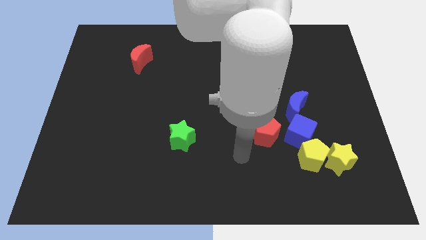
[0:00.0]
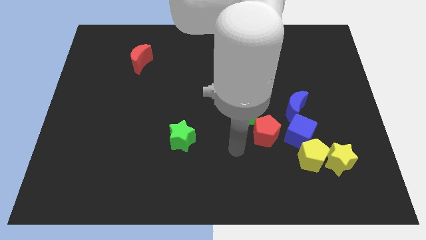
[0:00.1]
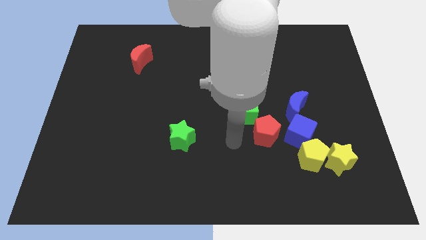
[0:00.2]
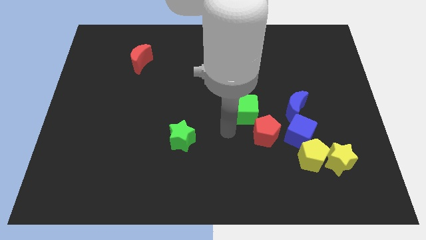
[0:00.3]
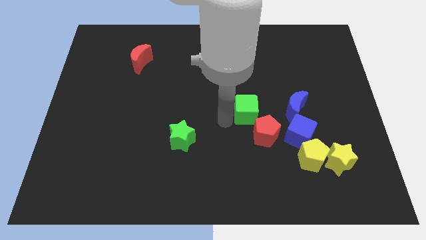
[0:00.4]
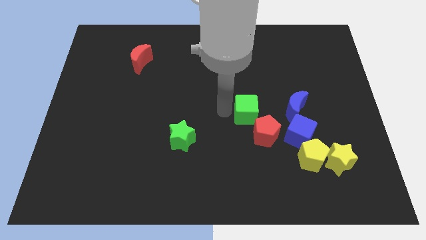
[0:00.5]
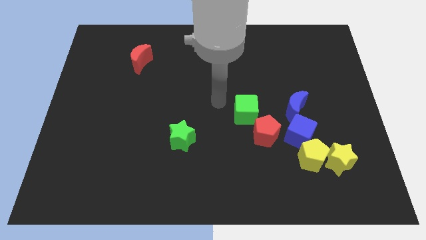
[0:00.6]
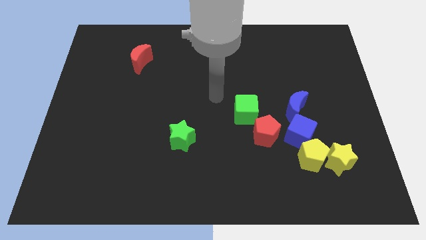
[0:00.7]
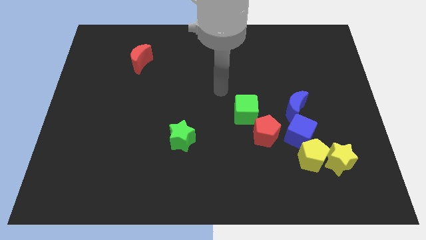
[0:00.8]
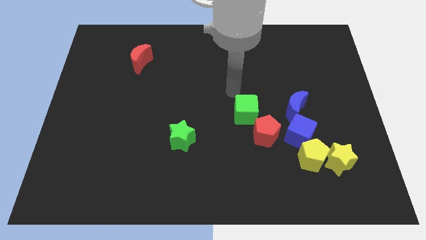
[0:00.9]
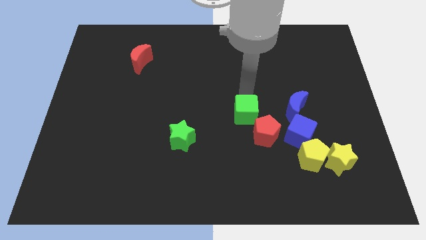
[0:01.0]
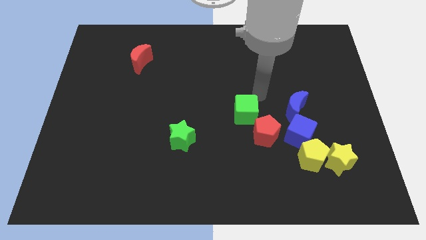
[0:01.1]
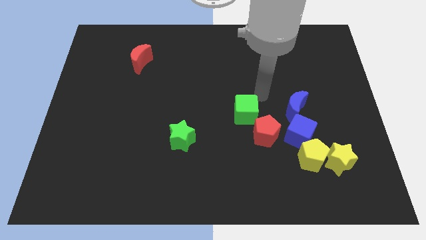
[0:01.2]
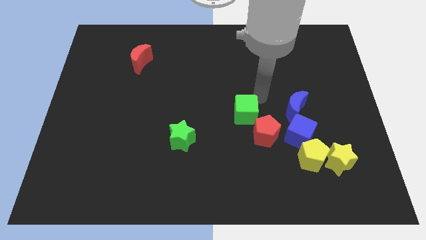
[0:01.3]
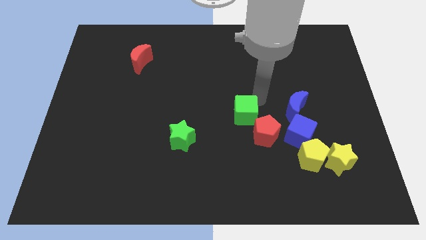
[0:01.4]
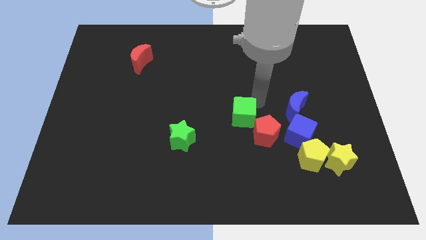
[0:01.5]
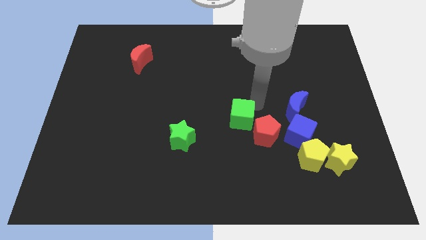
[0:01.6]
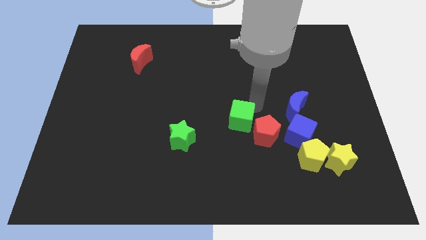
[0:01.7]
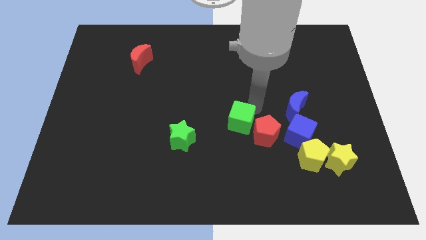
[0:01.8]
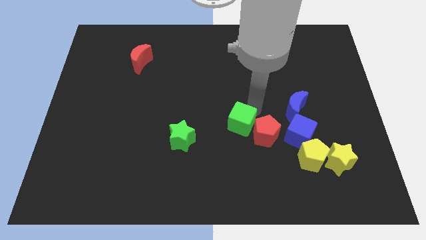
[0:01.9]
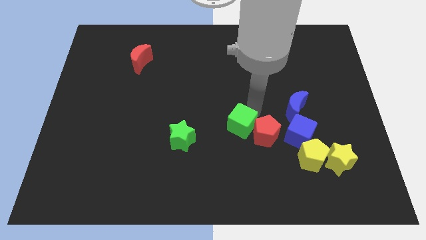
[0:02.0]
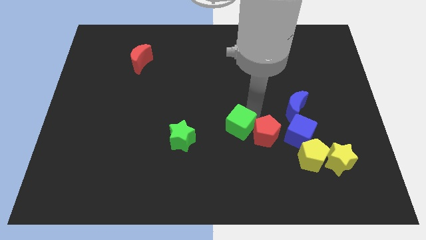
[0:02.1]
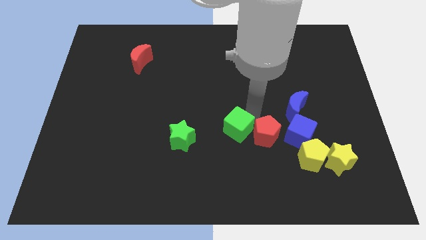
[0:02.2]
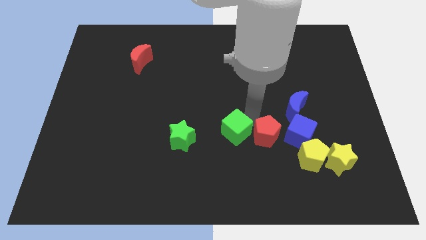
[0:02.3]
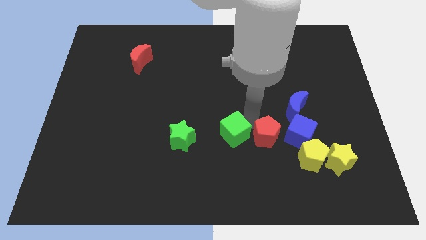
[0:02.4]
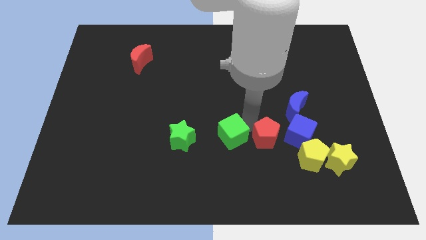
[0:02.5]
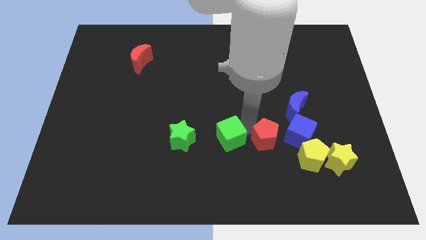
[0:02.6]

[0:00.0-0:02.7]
push the green cube slightly down and then to the left

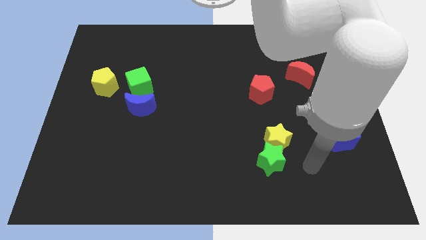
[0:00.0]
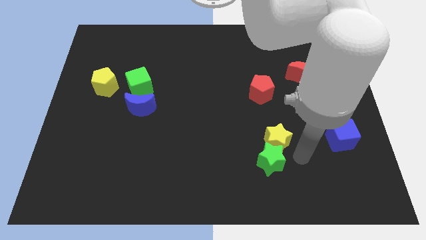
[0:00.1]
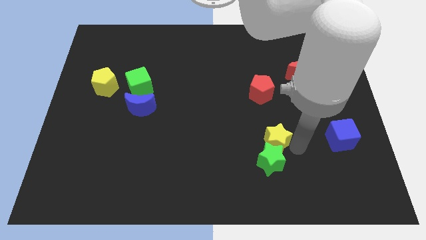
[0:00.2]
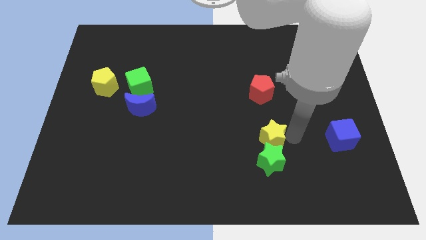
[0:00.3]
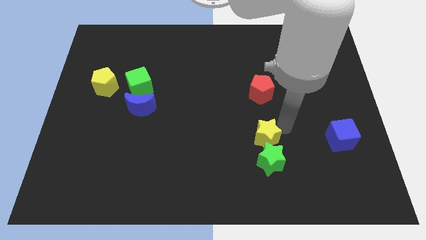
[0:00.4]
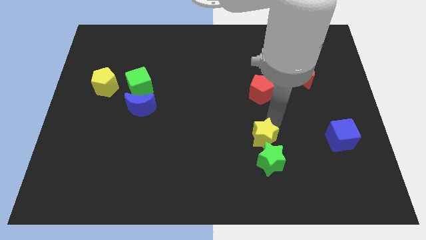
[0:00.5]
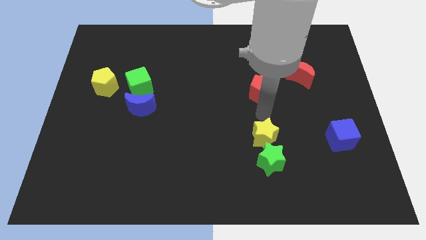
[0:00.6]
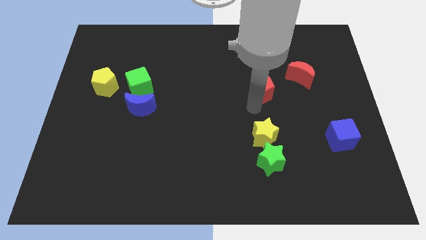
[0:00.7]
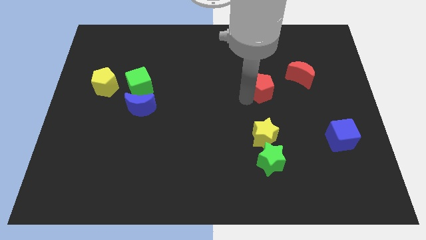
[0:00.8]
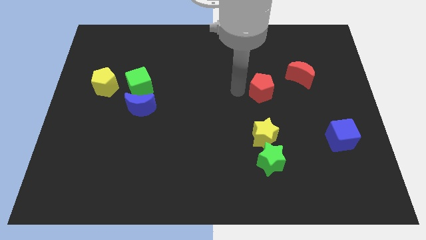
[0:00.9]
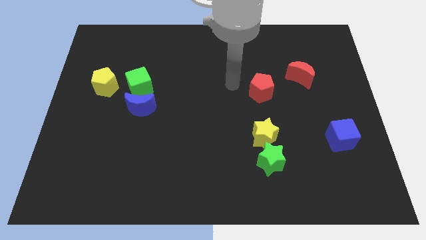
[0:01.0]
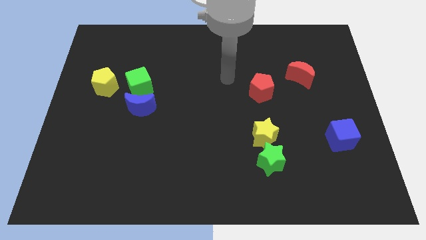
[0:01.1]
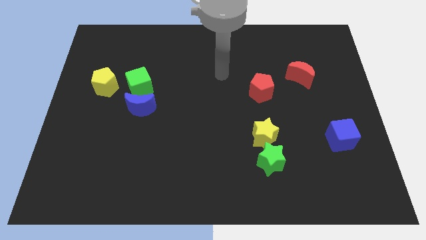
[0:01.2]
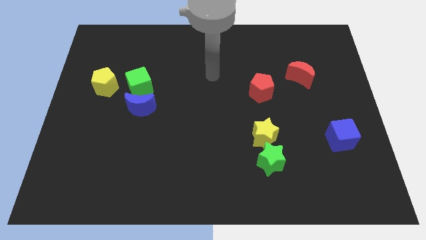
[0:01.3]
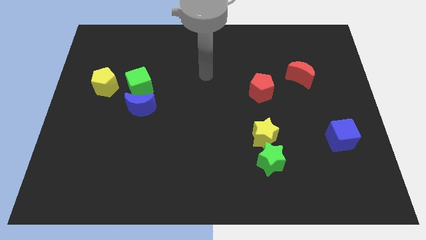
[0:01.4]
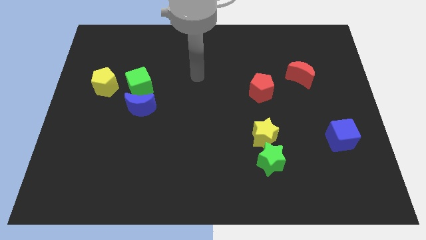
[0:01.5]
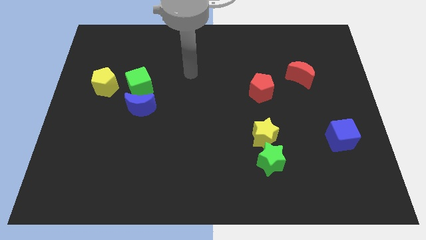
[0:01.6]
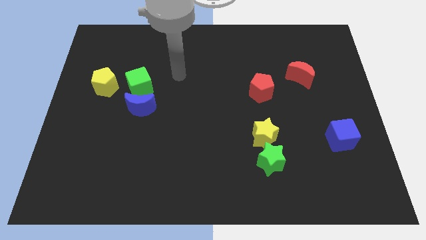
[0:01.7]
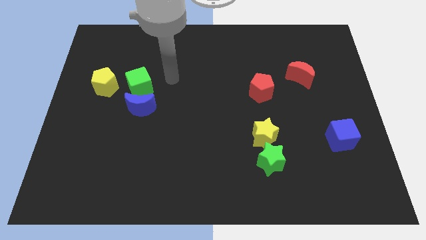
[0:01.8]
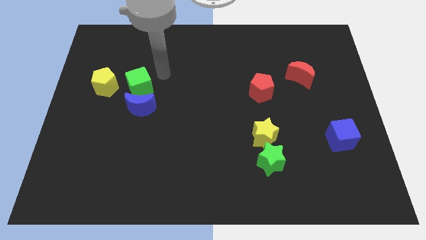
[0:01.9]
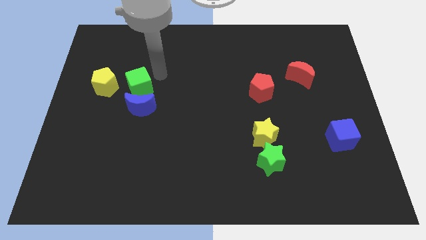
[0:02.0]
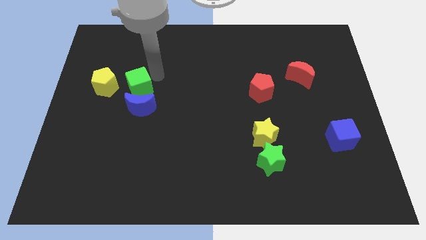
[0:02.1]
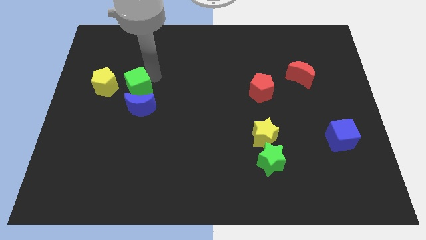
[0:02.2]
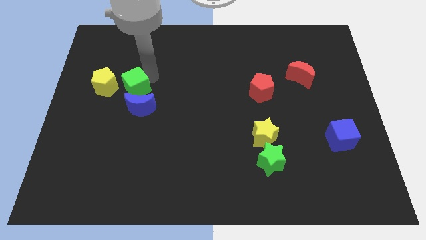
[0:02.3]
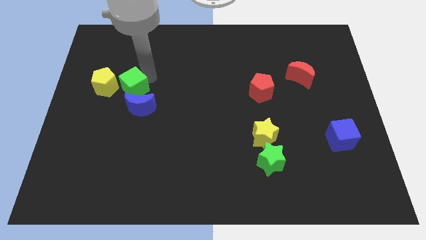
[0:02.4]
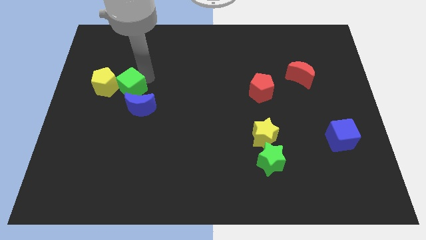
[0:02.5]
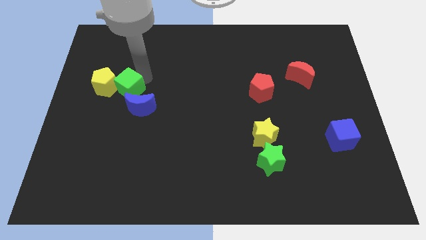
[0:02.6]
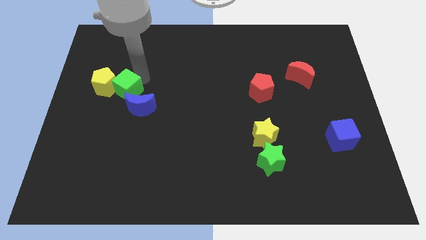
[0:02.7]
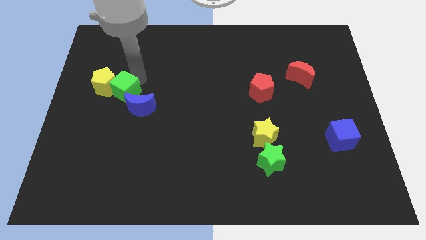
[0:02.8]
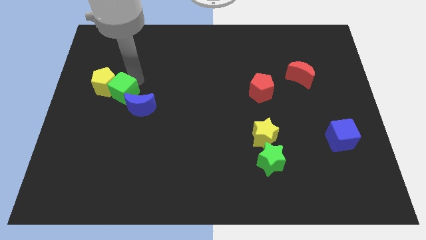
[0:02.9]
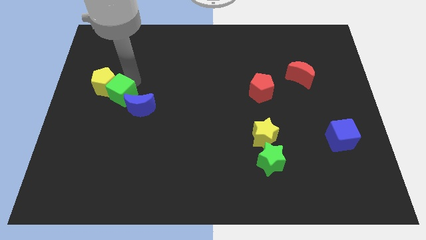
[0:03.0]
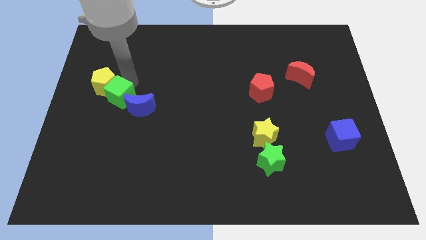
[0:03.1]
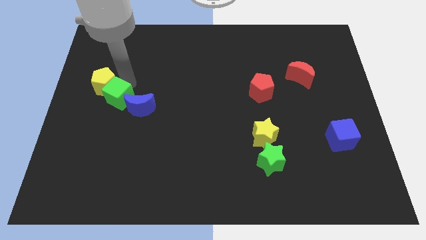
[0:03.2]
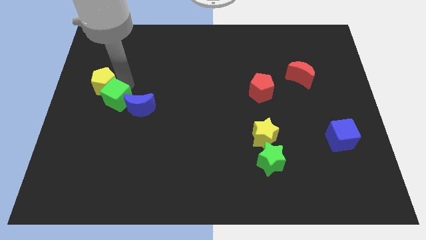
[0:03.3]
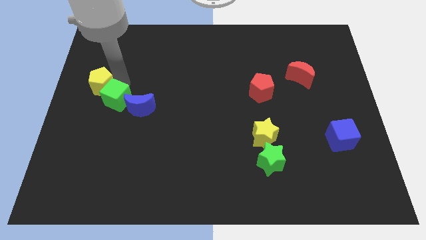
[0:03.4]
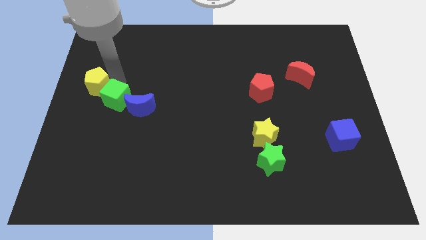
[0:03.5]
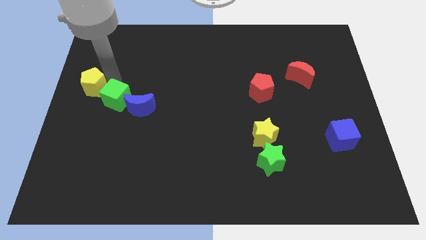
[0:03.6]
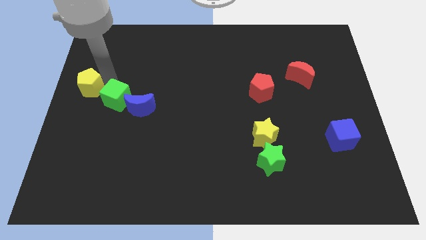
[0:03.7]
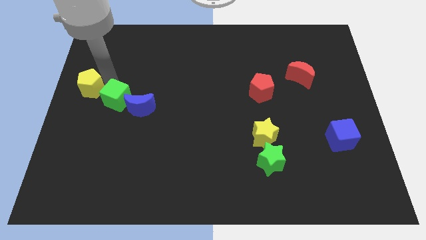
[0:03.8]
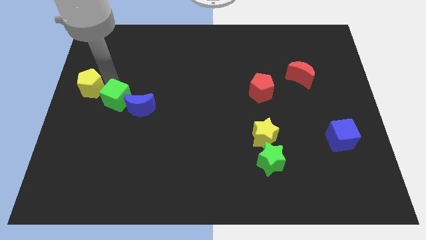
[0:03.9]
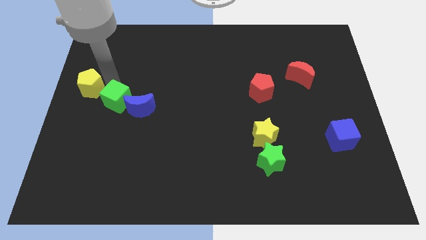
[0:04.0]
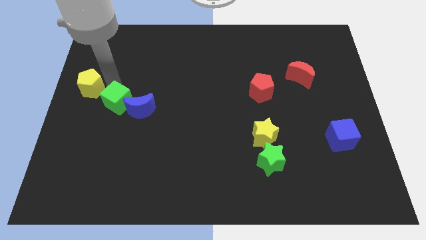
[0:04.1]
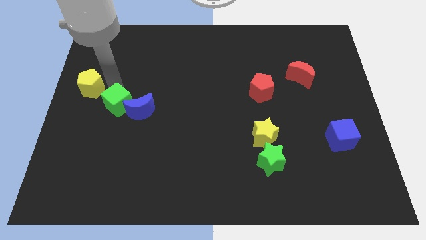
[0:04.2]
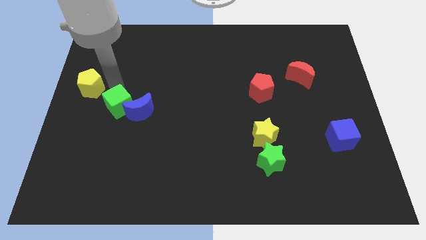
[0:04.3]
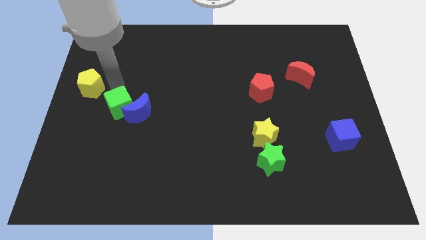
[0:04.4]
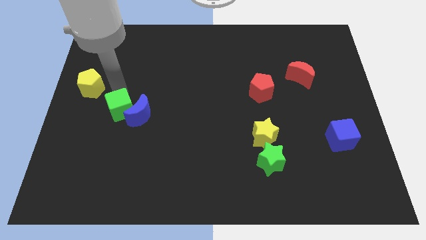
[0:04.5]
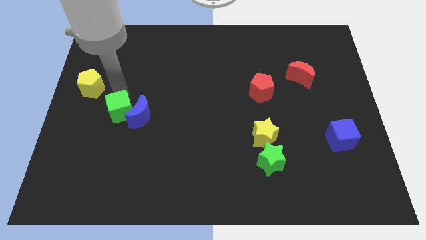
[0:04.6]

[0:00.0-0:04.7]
move the green cube a bit downwards

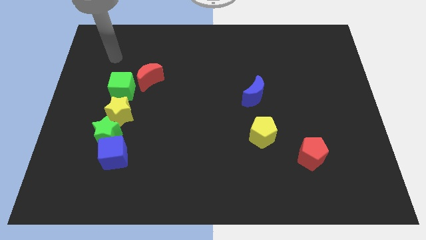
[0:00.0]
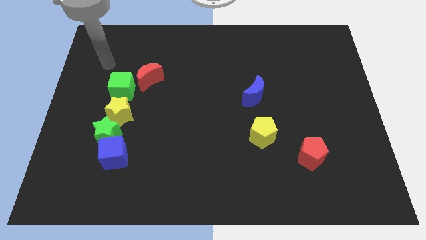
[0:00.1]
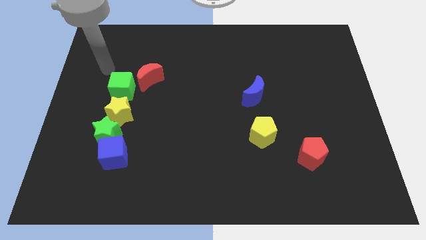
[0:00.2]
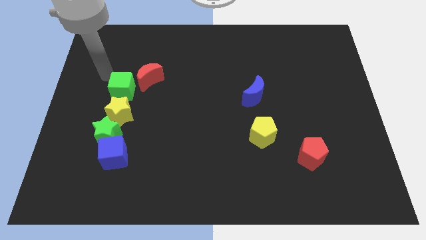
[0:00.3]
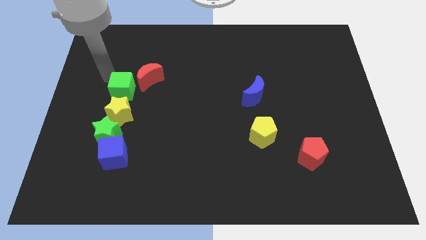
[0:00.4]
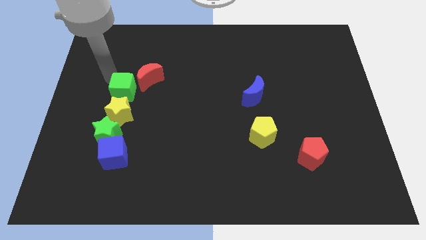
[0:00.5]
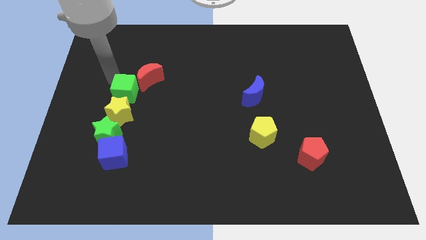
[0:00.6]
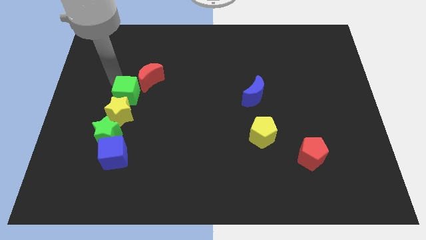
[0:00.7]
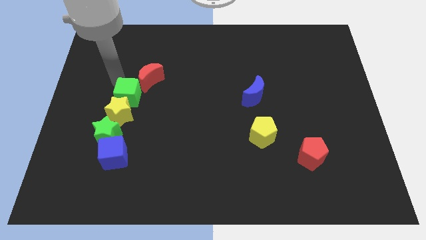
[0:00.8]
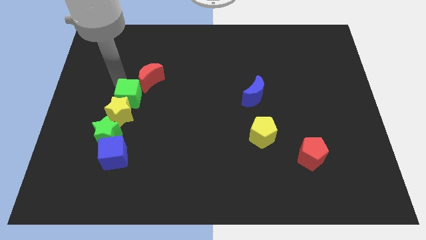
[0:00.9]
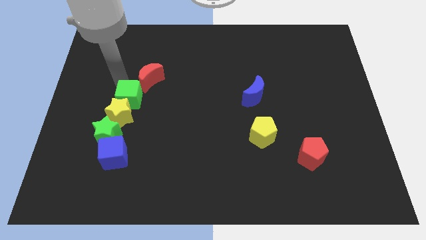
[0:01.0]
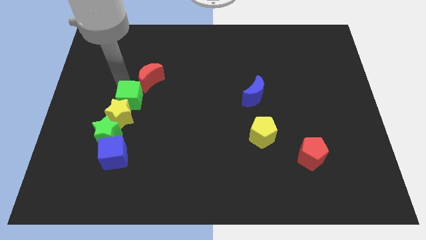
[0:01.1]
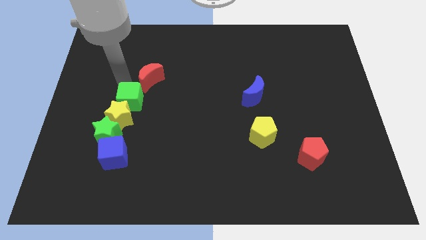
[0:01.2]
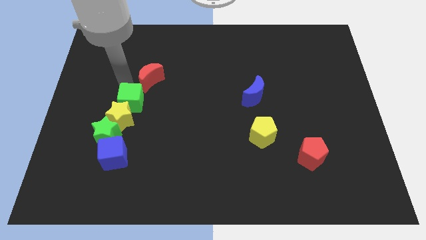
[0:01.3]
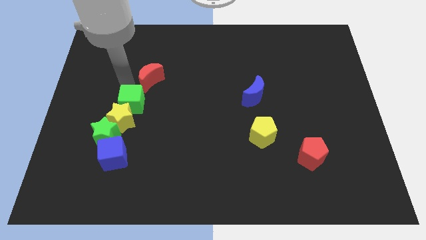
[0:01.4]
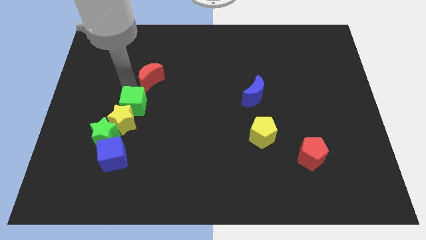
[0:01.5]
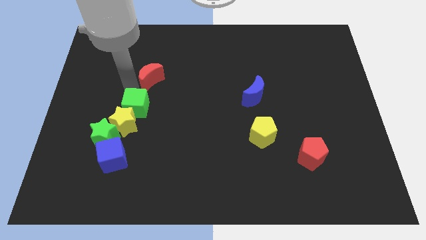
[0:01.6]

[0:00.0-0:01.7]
push the green cube slightly downwards and then right
